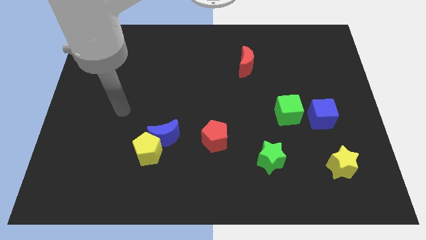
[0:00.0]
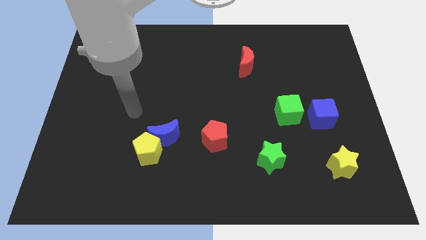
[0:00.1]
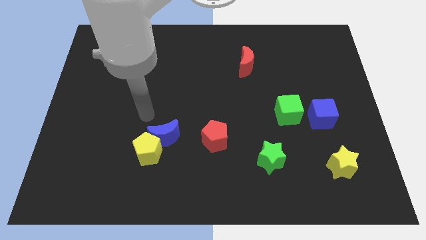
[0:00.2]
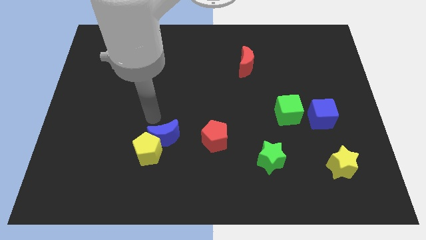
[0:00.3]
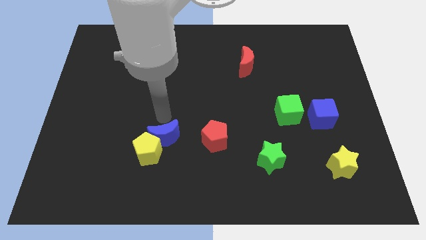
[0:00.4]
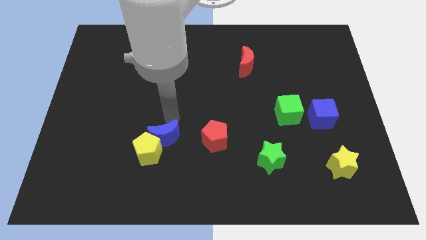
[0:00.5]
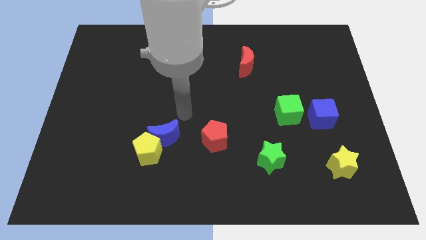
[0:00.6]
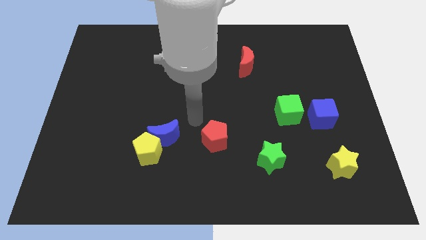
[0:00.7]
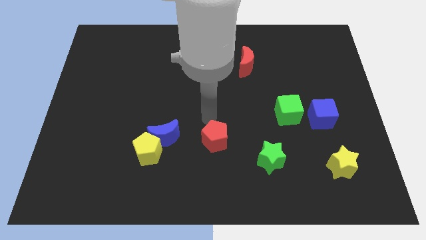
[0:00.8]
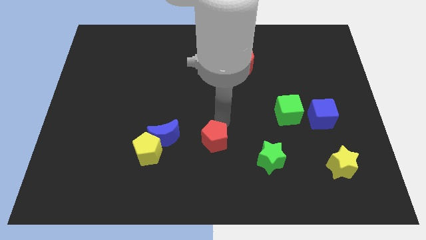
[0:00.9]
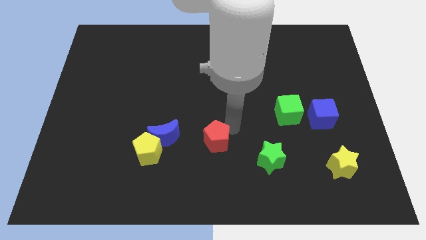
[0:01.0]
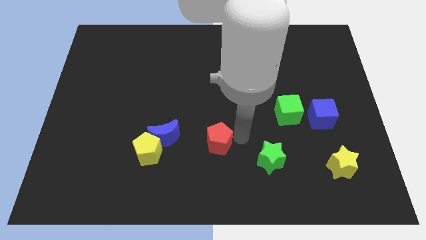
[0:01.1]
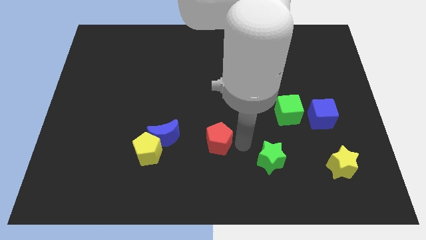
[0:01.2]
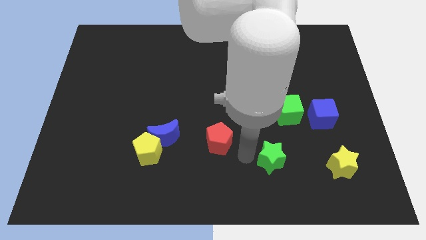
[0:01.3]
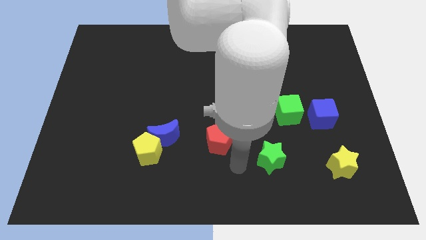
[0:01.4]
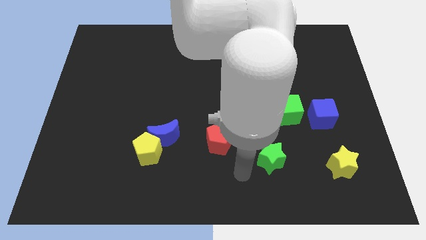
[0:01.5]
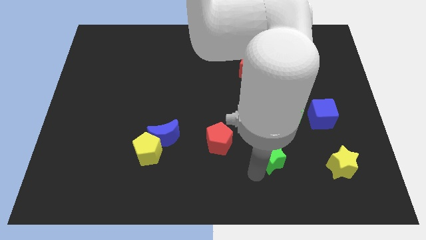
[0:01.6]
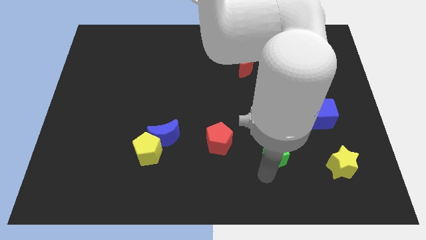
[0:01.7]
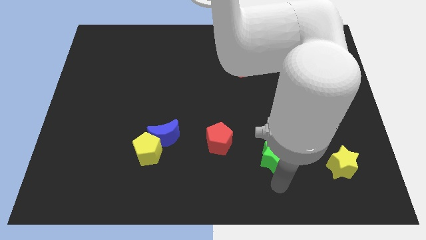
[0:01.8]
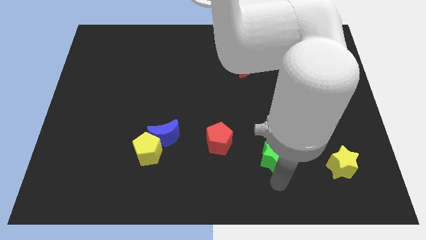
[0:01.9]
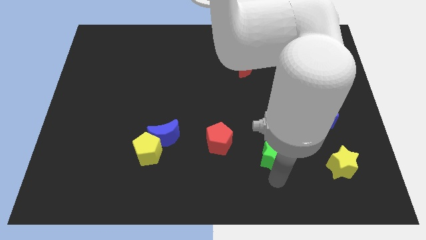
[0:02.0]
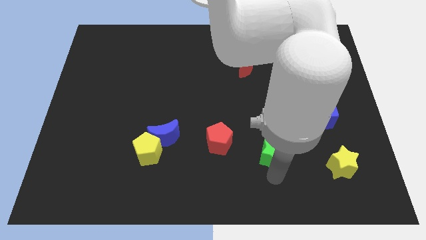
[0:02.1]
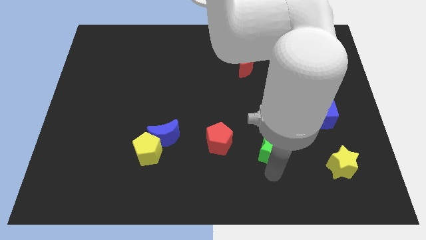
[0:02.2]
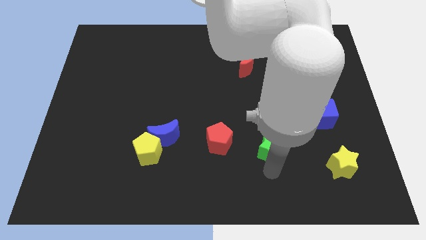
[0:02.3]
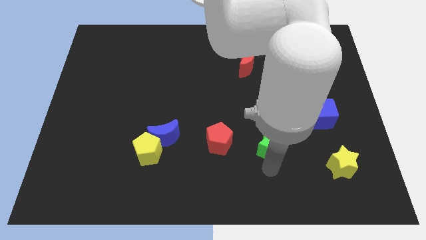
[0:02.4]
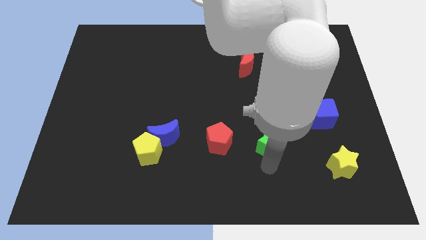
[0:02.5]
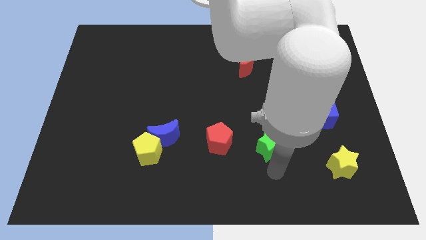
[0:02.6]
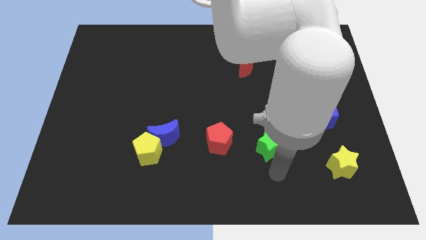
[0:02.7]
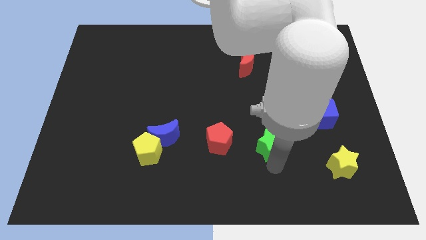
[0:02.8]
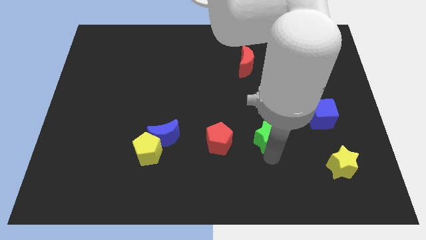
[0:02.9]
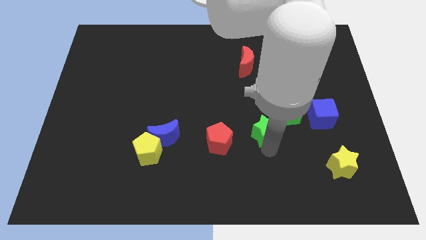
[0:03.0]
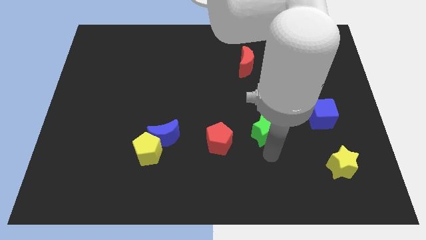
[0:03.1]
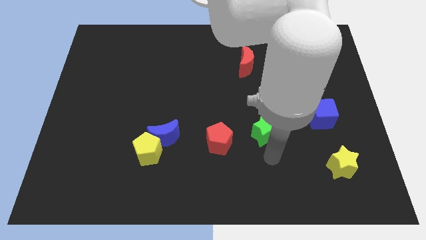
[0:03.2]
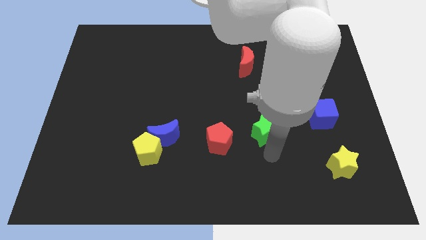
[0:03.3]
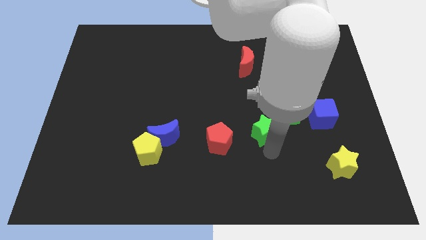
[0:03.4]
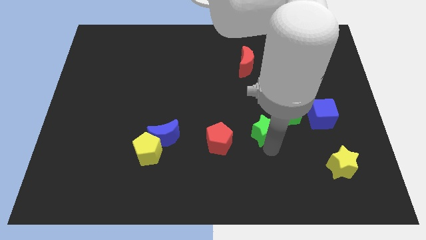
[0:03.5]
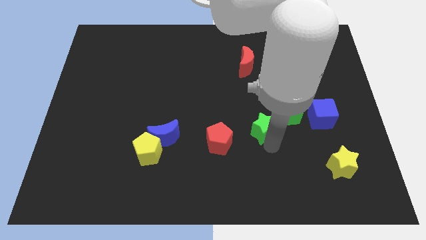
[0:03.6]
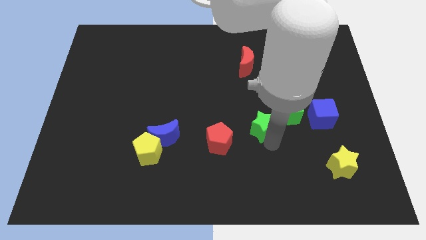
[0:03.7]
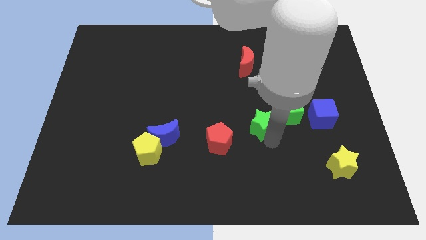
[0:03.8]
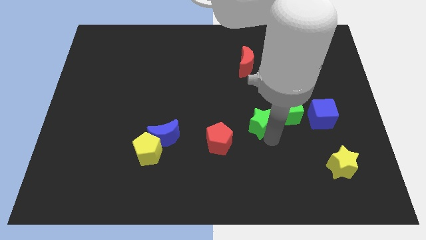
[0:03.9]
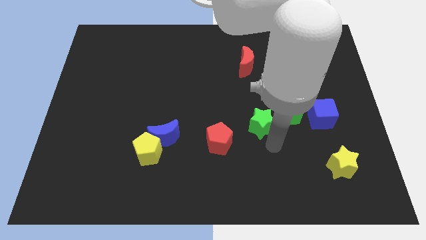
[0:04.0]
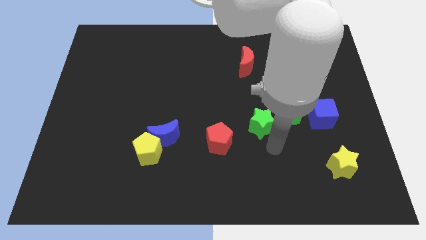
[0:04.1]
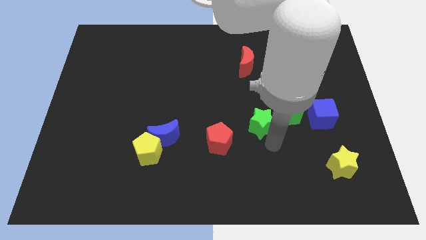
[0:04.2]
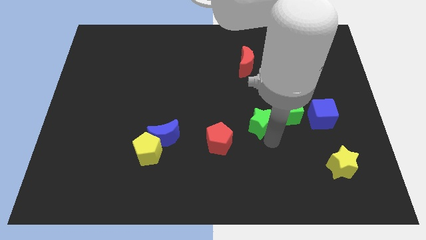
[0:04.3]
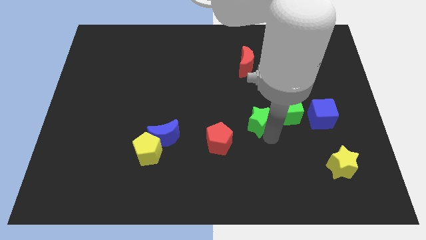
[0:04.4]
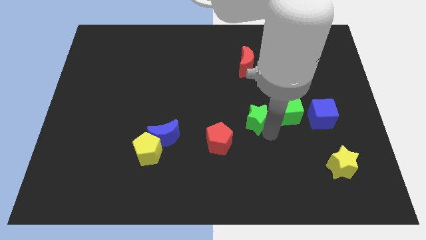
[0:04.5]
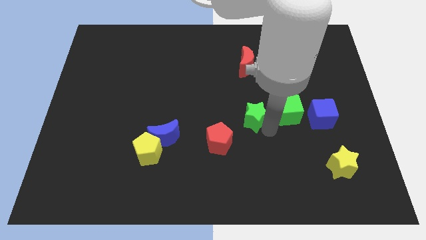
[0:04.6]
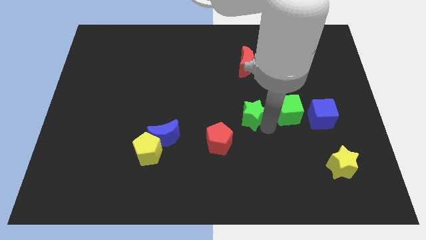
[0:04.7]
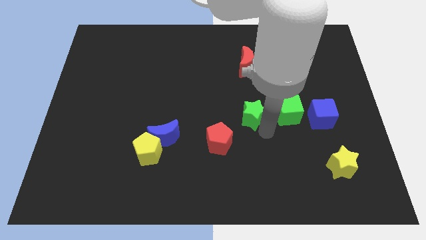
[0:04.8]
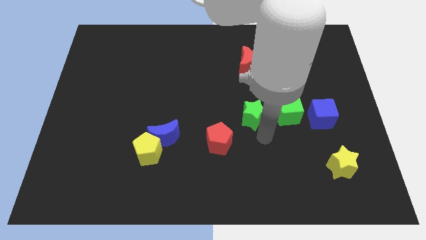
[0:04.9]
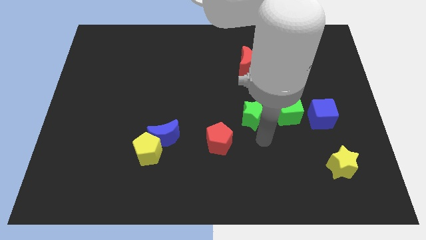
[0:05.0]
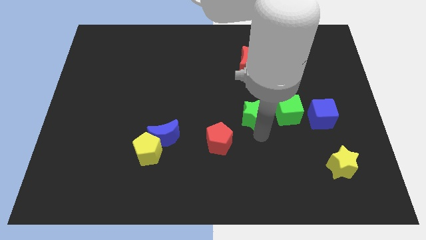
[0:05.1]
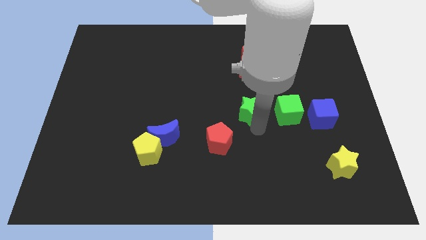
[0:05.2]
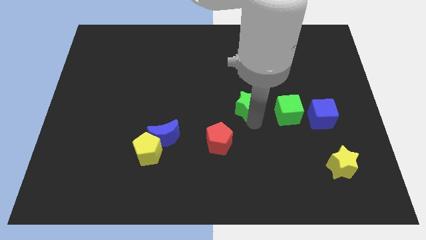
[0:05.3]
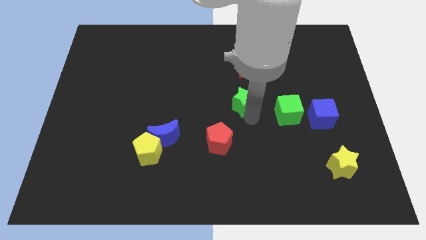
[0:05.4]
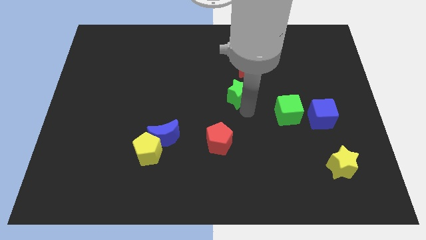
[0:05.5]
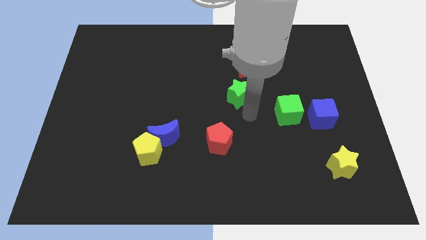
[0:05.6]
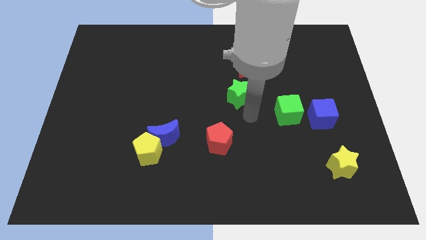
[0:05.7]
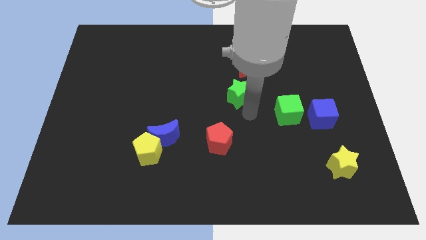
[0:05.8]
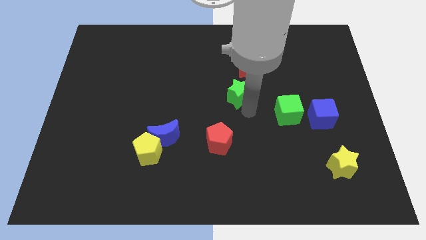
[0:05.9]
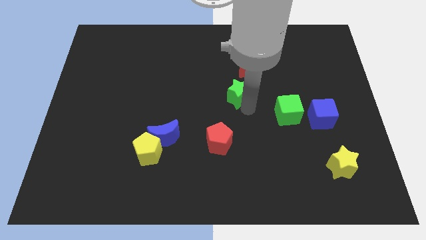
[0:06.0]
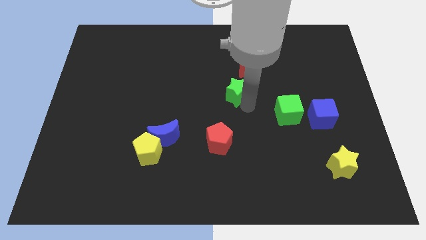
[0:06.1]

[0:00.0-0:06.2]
move the green star to the bottom left side of the red moon

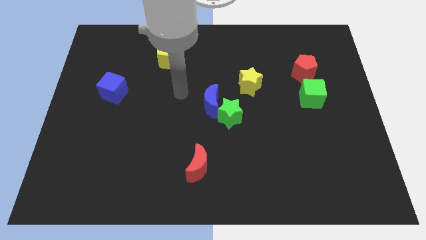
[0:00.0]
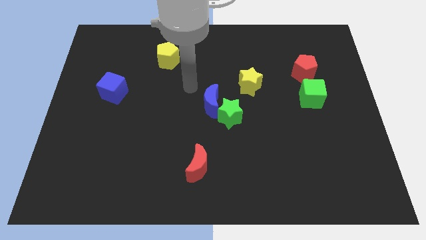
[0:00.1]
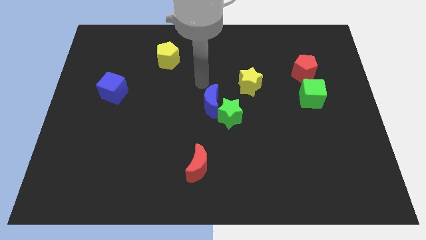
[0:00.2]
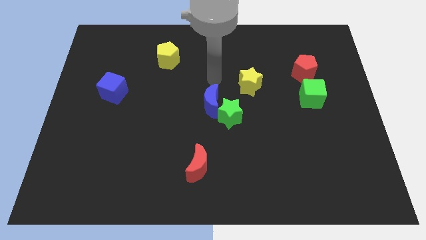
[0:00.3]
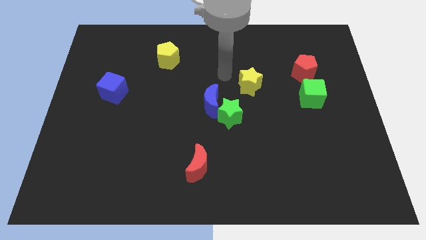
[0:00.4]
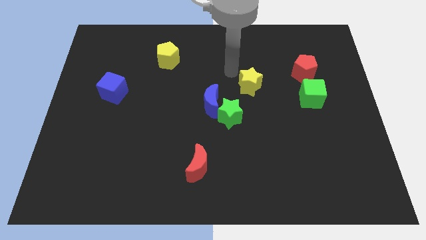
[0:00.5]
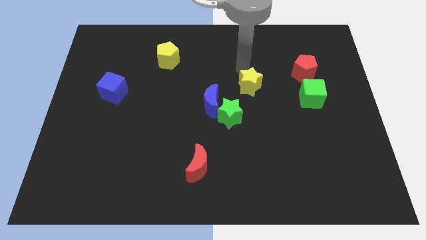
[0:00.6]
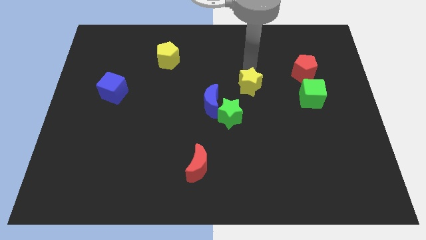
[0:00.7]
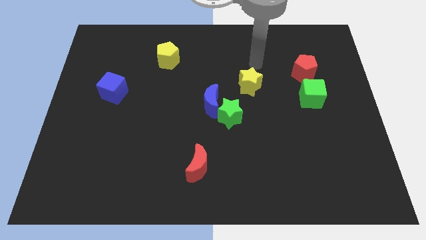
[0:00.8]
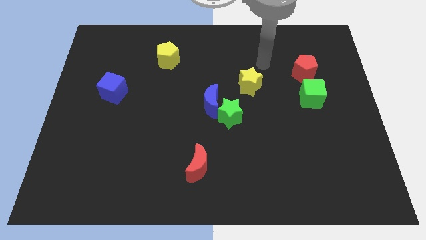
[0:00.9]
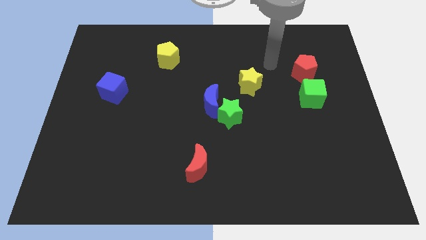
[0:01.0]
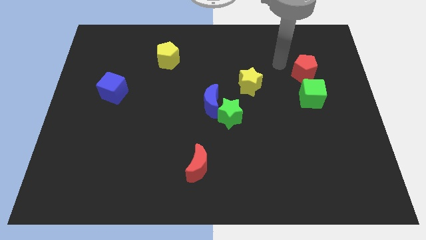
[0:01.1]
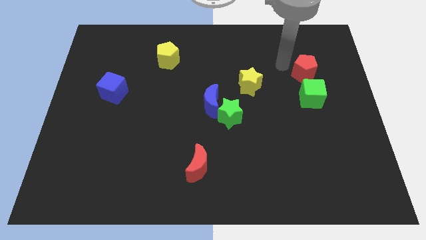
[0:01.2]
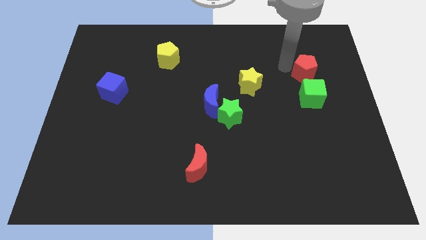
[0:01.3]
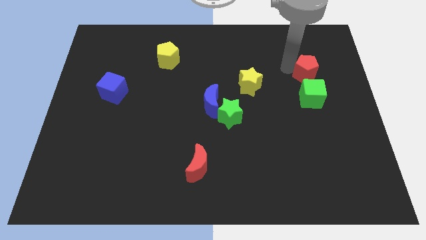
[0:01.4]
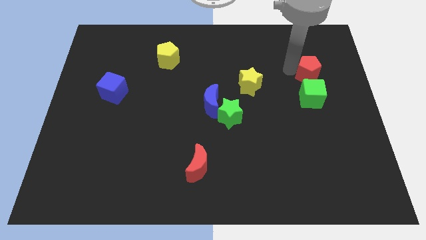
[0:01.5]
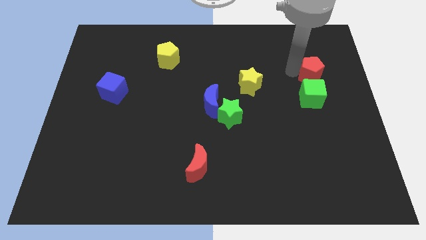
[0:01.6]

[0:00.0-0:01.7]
slide the red pentagon to the top right side of the green cube
